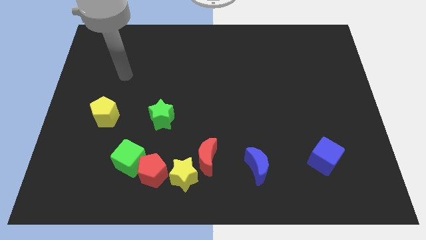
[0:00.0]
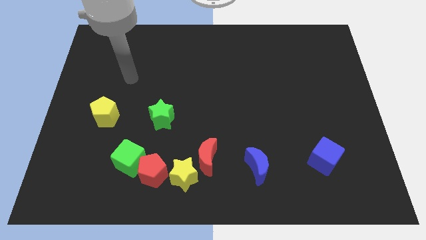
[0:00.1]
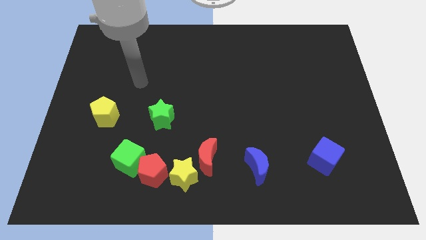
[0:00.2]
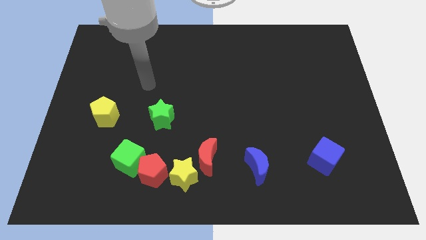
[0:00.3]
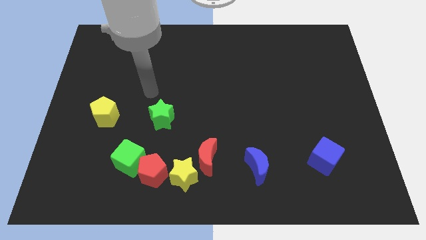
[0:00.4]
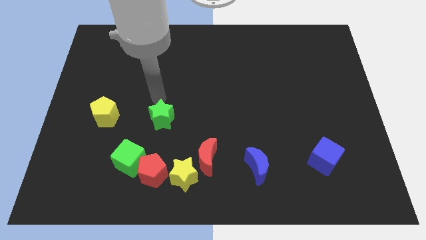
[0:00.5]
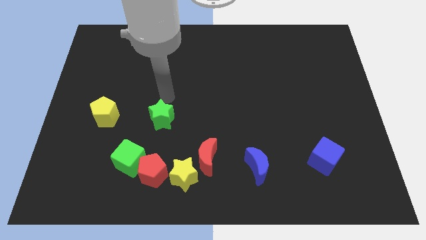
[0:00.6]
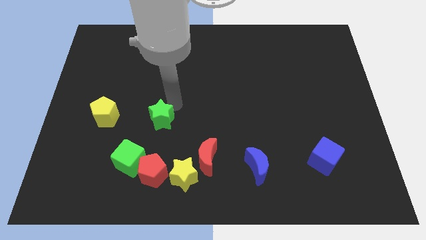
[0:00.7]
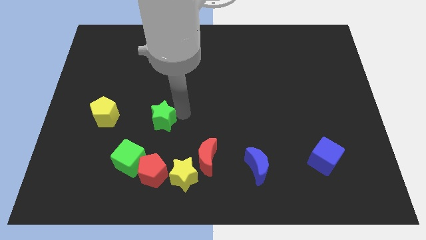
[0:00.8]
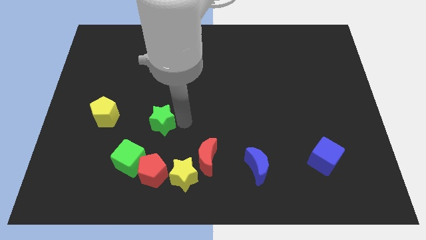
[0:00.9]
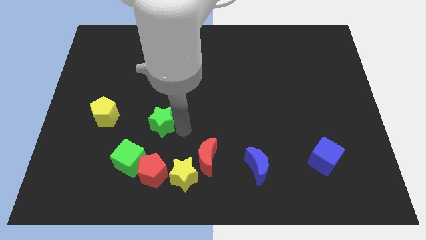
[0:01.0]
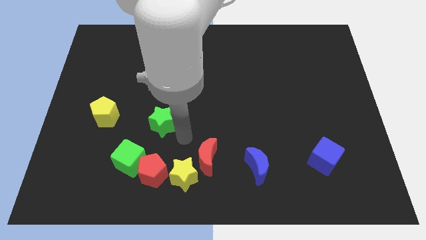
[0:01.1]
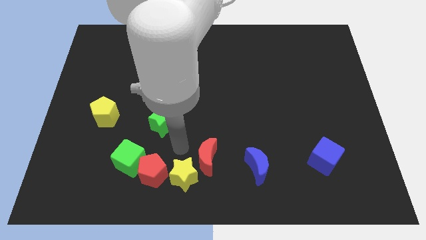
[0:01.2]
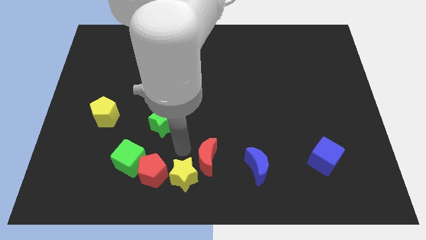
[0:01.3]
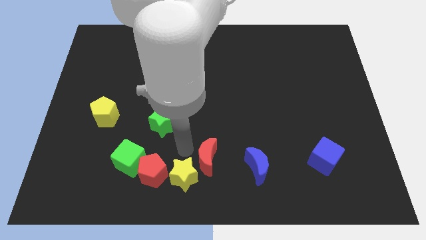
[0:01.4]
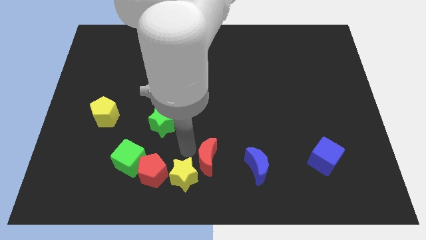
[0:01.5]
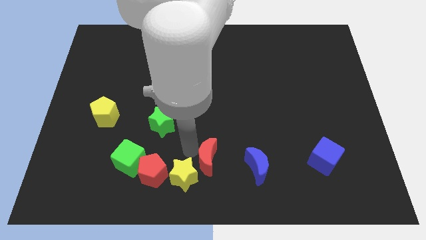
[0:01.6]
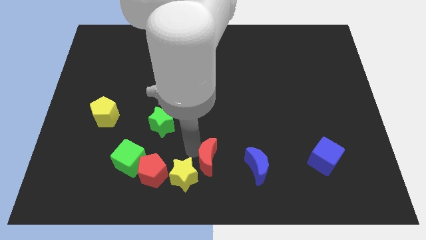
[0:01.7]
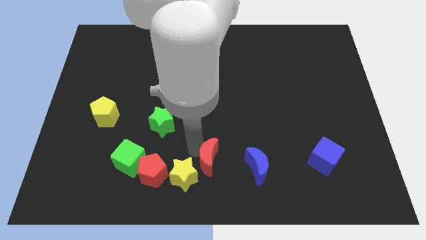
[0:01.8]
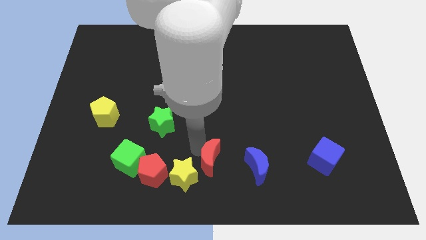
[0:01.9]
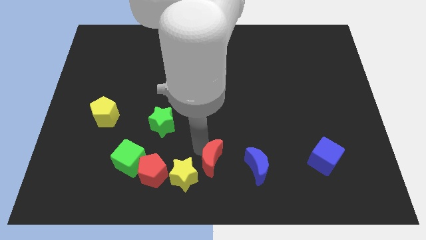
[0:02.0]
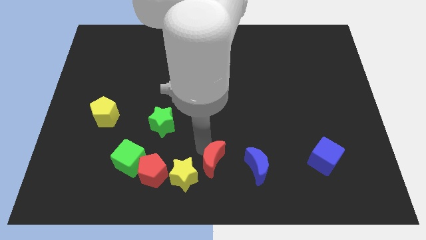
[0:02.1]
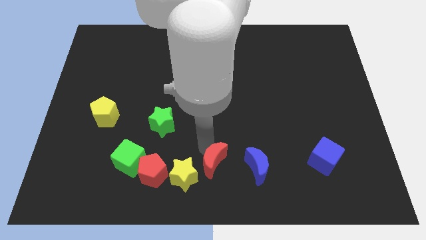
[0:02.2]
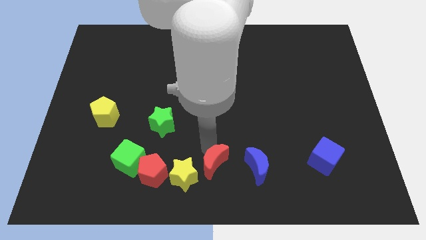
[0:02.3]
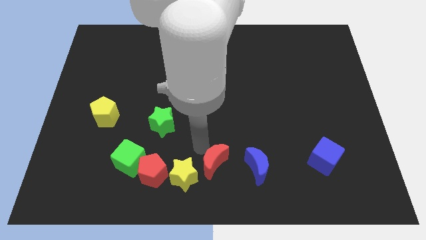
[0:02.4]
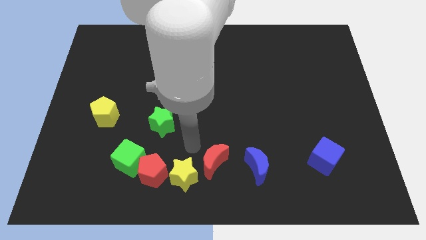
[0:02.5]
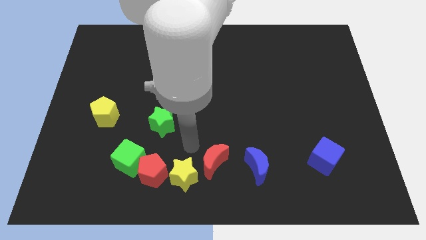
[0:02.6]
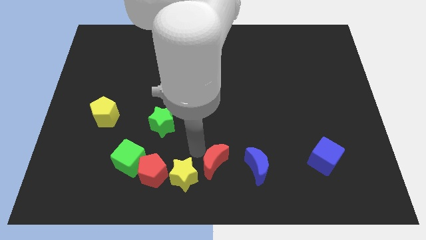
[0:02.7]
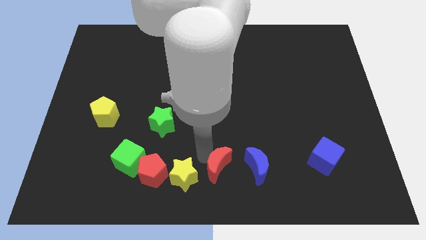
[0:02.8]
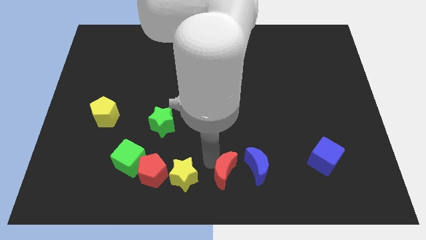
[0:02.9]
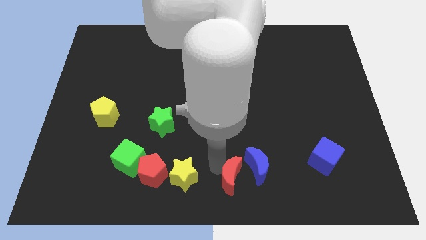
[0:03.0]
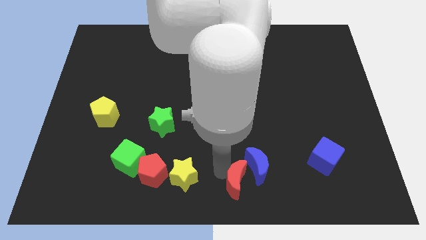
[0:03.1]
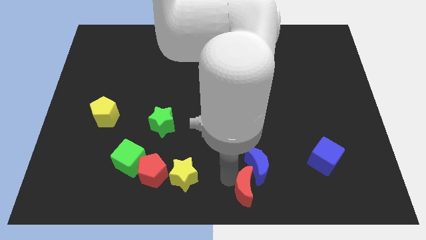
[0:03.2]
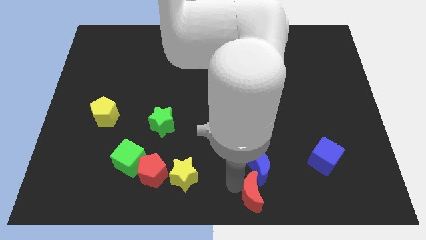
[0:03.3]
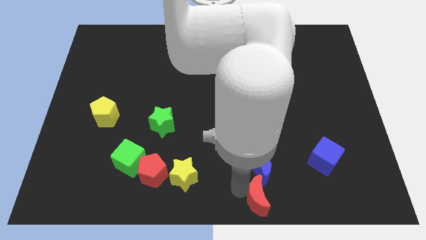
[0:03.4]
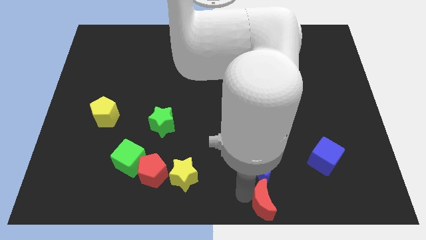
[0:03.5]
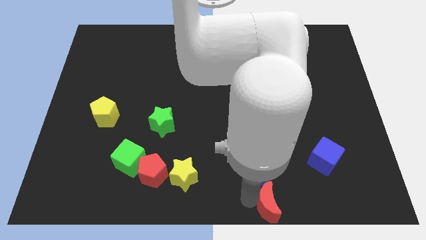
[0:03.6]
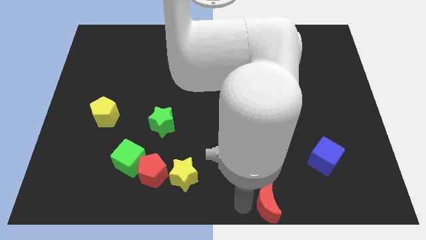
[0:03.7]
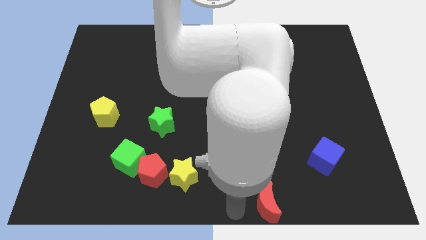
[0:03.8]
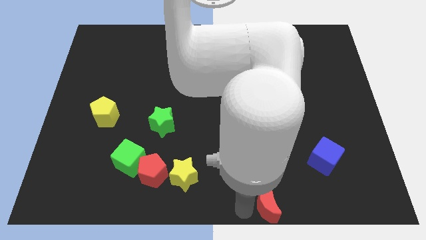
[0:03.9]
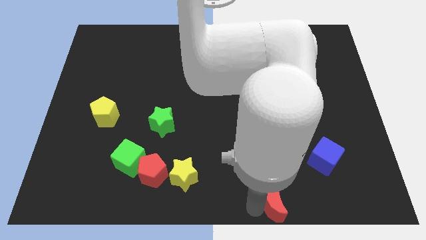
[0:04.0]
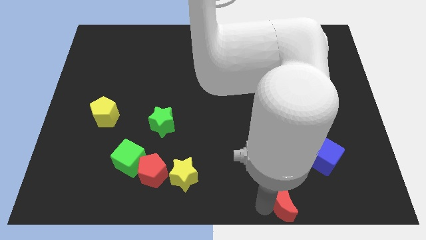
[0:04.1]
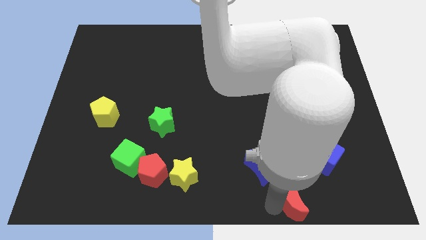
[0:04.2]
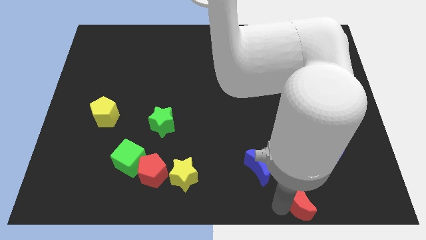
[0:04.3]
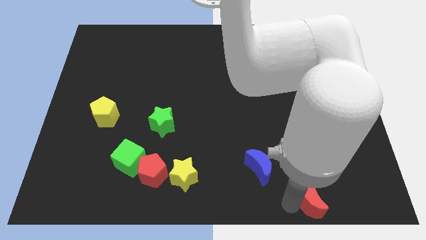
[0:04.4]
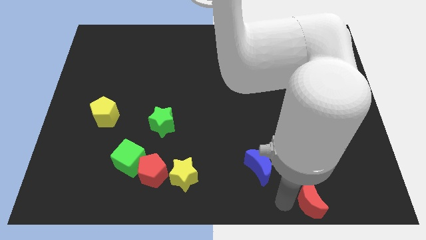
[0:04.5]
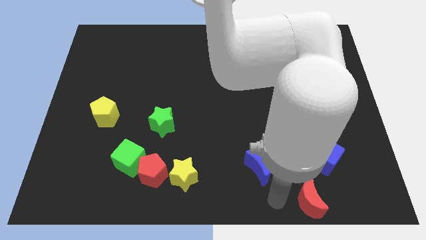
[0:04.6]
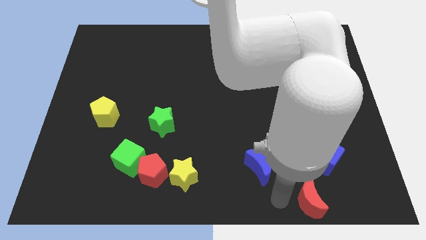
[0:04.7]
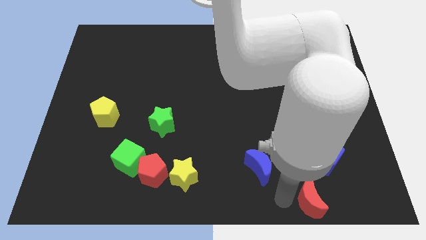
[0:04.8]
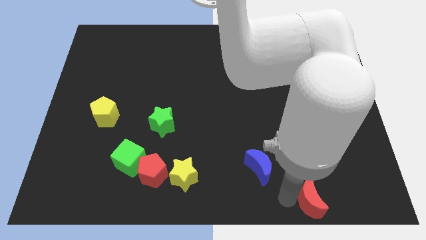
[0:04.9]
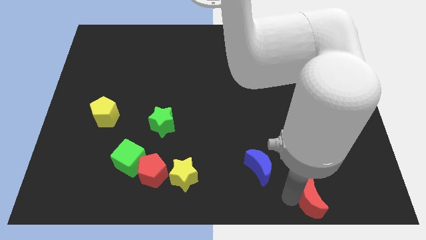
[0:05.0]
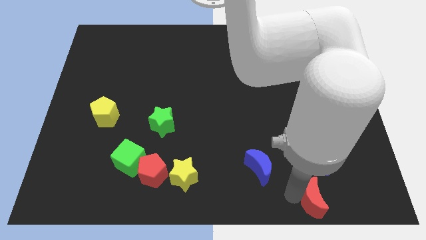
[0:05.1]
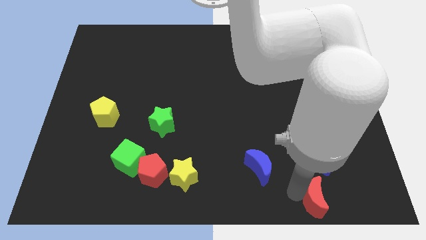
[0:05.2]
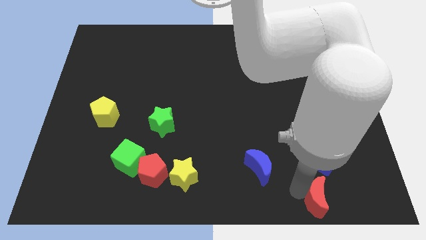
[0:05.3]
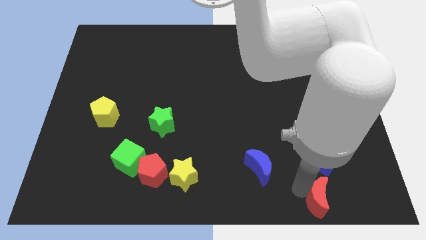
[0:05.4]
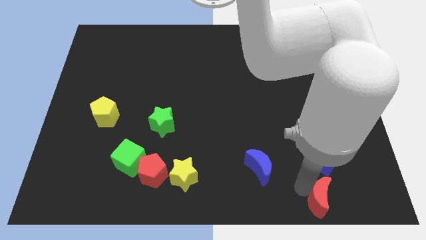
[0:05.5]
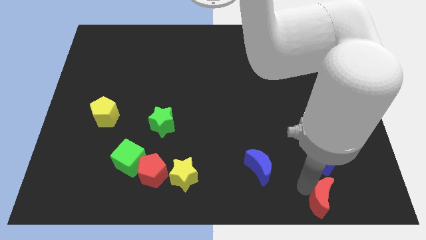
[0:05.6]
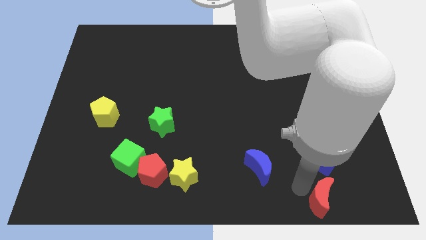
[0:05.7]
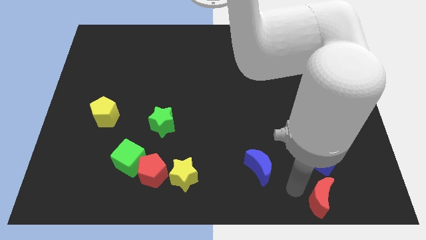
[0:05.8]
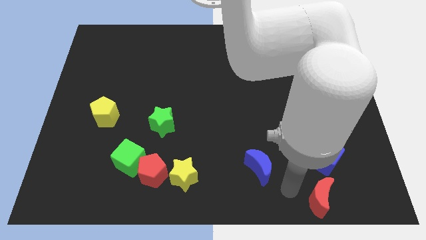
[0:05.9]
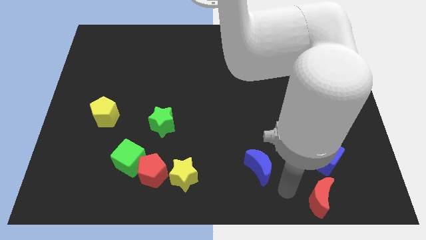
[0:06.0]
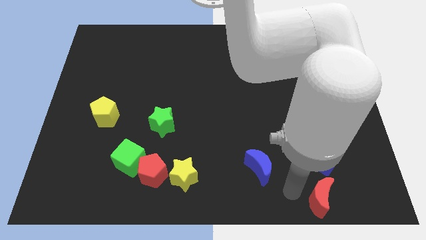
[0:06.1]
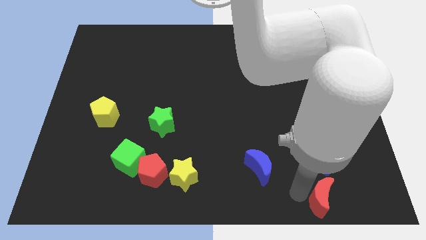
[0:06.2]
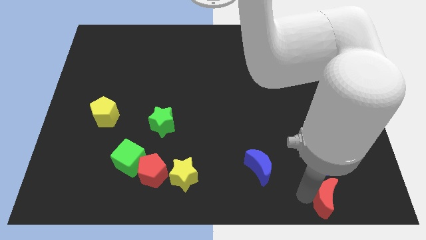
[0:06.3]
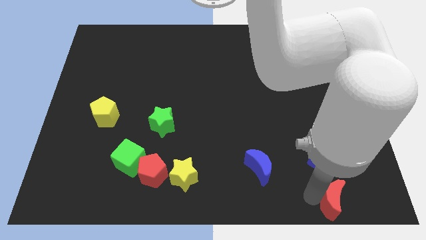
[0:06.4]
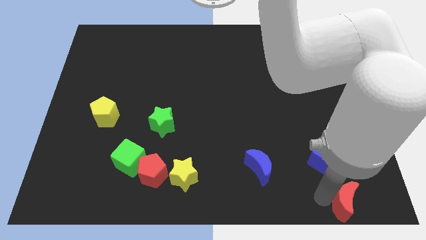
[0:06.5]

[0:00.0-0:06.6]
slide the red moon to the bottom right
